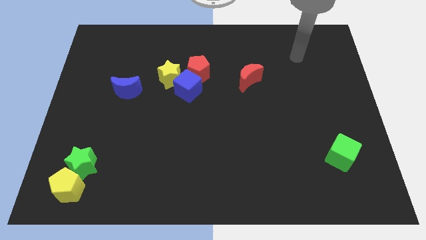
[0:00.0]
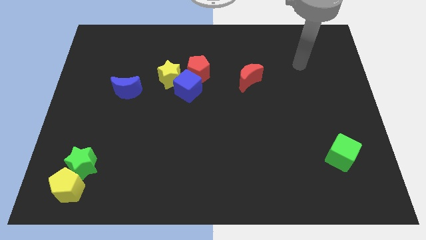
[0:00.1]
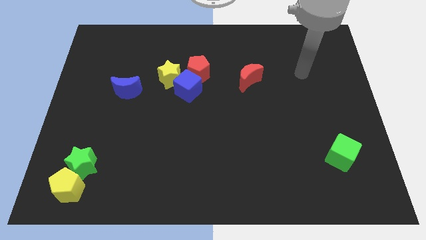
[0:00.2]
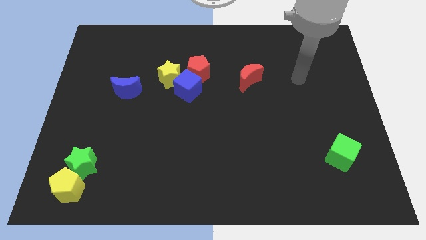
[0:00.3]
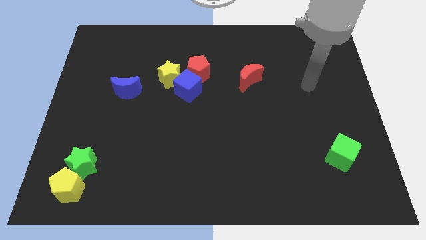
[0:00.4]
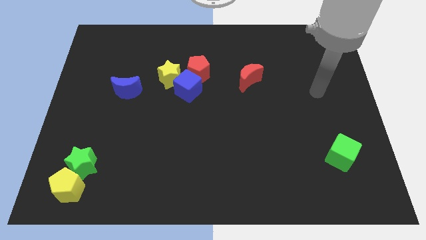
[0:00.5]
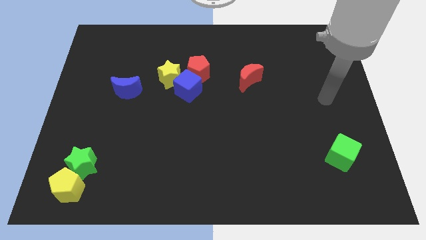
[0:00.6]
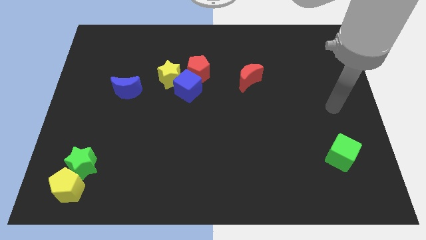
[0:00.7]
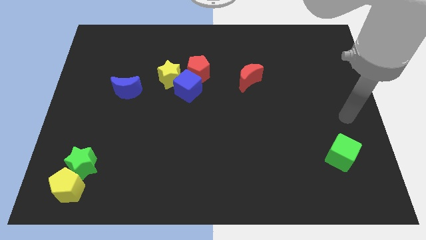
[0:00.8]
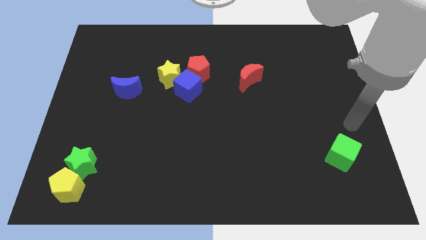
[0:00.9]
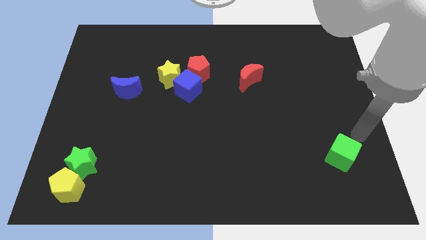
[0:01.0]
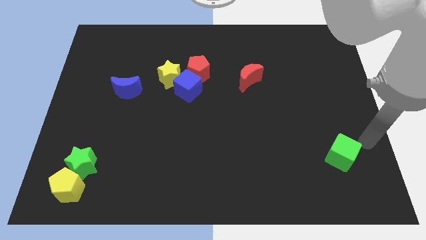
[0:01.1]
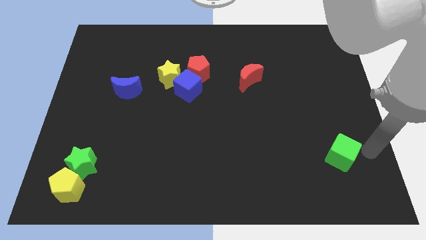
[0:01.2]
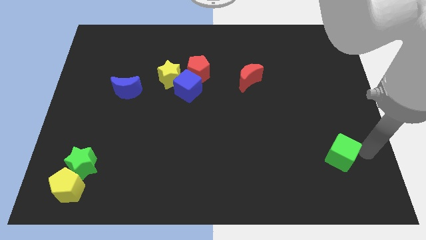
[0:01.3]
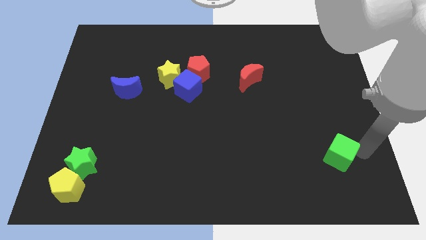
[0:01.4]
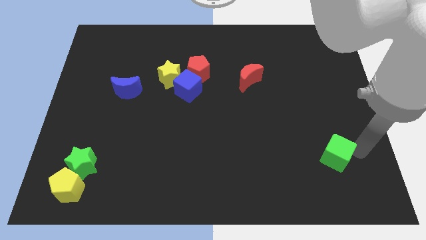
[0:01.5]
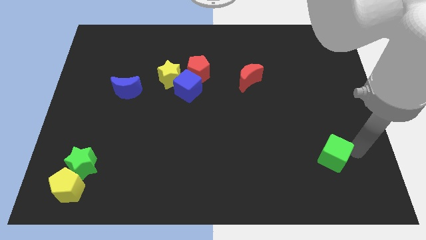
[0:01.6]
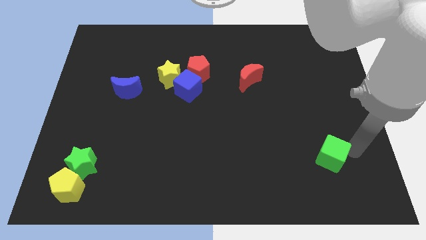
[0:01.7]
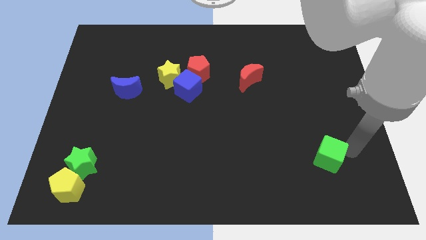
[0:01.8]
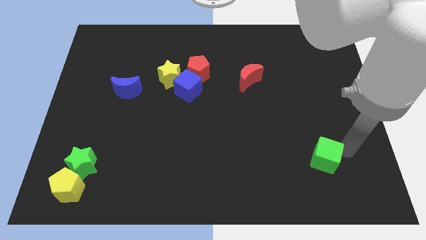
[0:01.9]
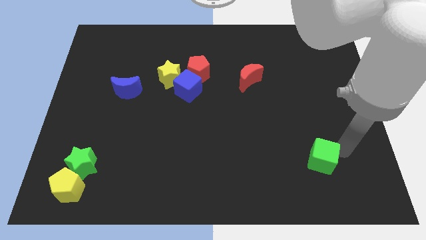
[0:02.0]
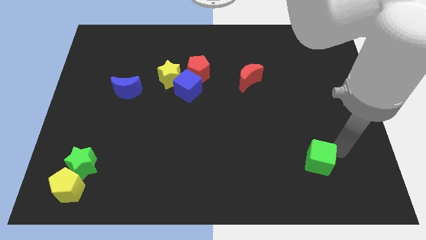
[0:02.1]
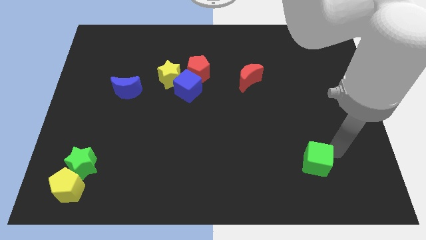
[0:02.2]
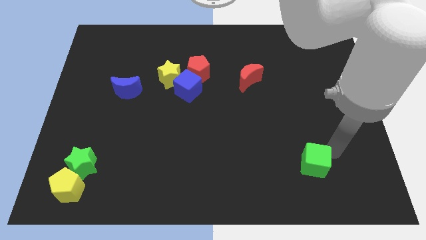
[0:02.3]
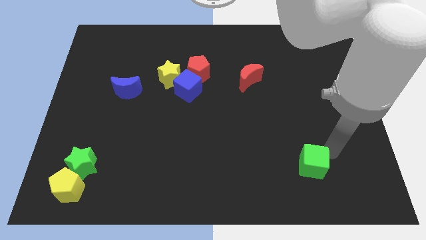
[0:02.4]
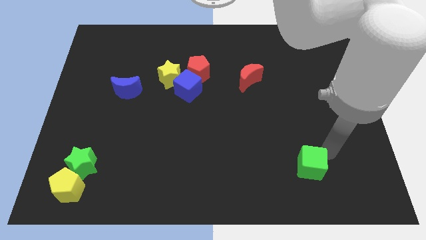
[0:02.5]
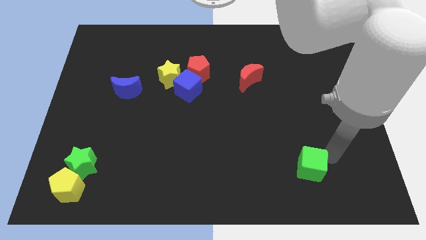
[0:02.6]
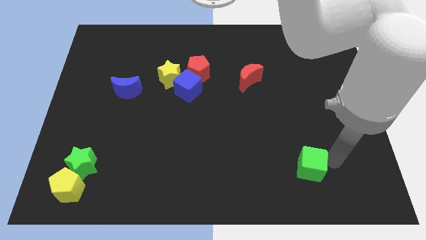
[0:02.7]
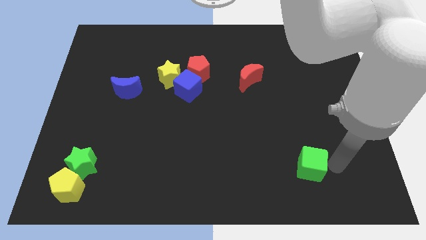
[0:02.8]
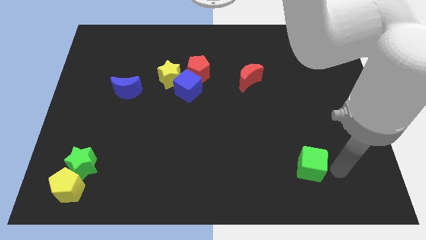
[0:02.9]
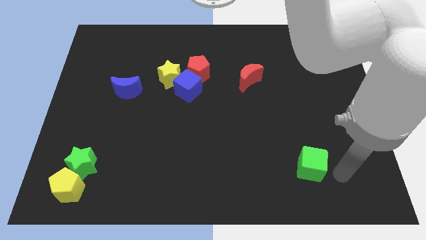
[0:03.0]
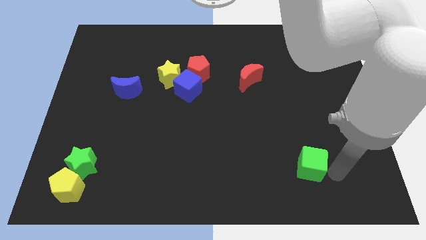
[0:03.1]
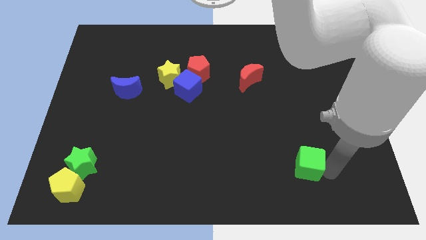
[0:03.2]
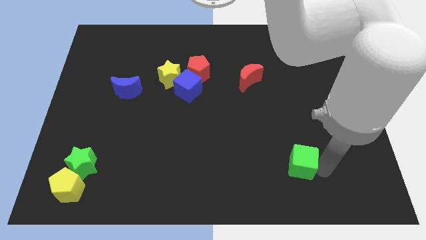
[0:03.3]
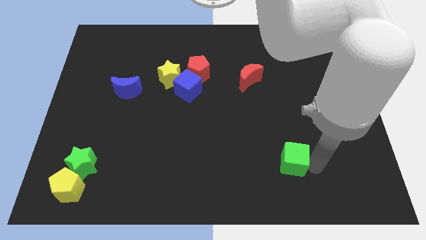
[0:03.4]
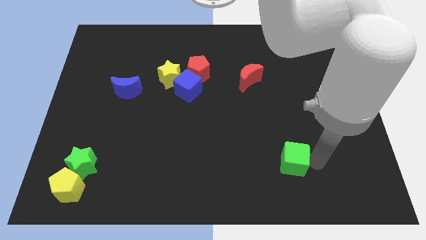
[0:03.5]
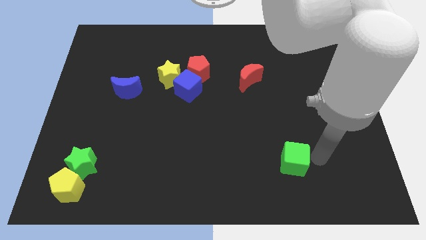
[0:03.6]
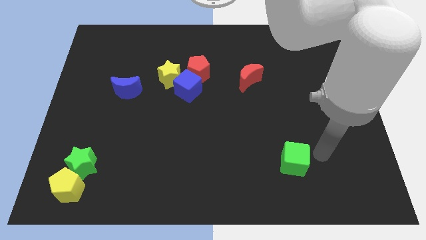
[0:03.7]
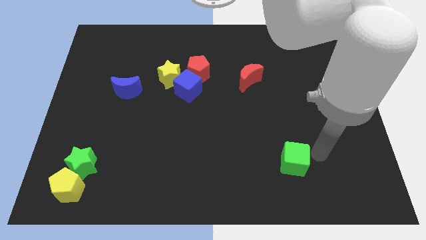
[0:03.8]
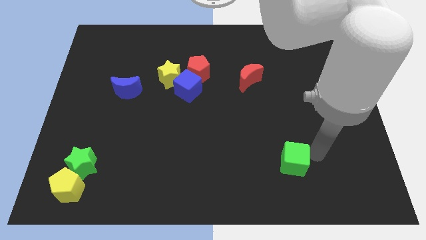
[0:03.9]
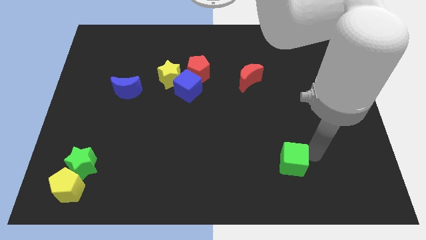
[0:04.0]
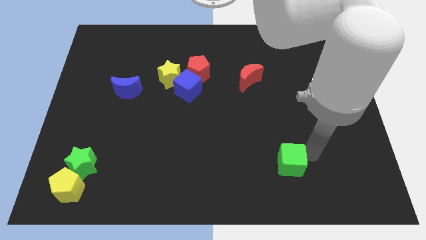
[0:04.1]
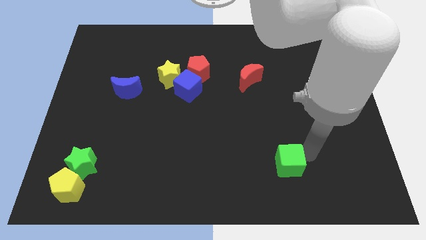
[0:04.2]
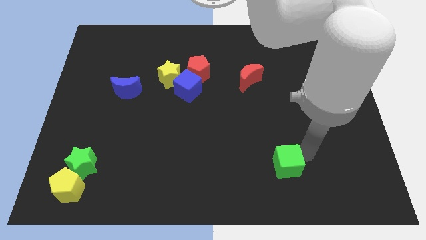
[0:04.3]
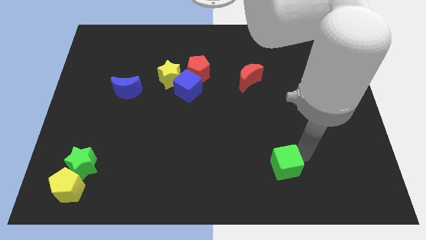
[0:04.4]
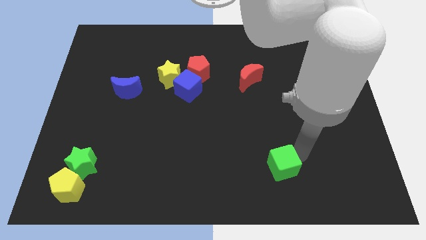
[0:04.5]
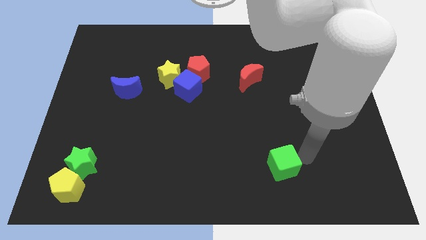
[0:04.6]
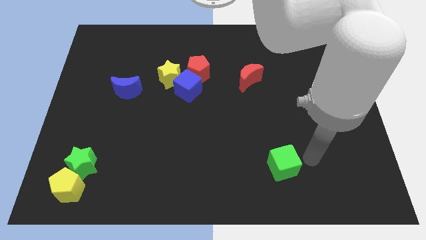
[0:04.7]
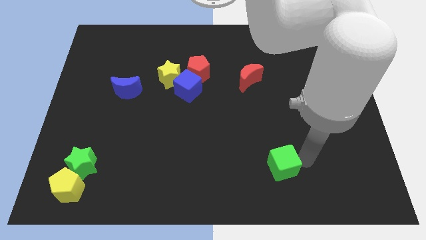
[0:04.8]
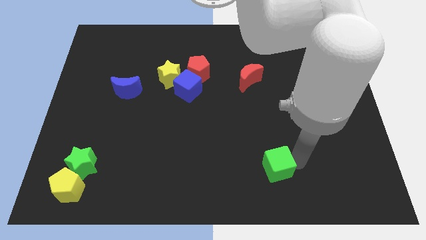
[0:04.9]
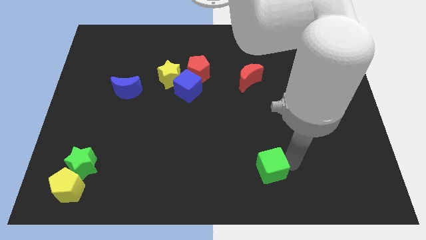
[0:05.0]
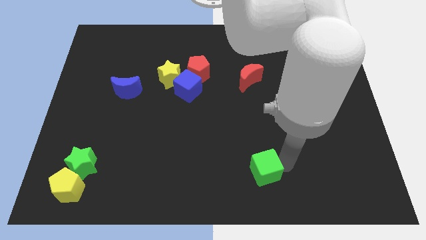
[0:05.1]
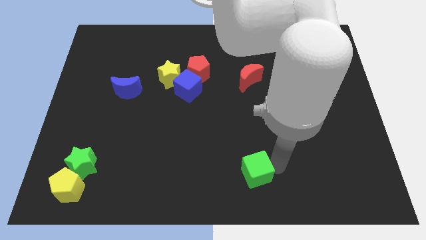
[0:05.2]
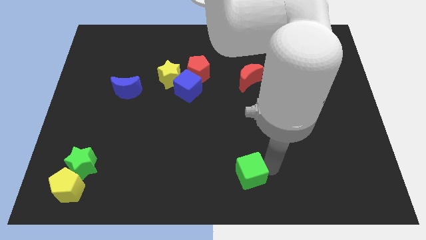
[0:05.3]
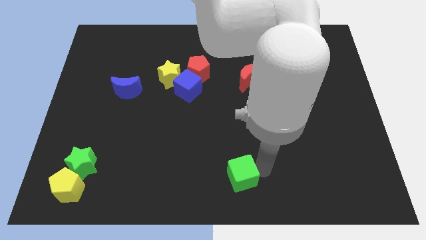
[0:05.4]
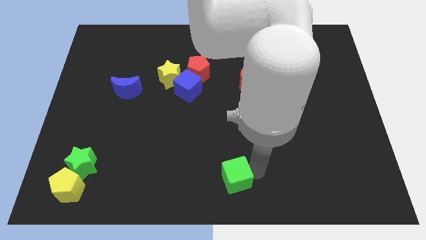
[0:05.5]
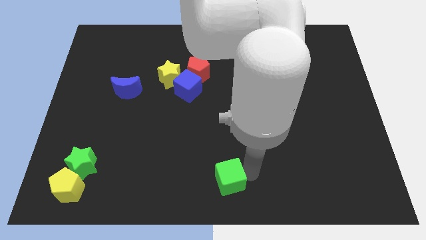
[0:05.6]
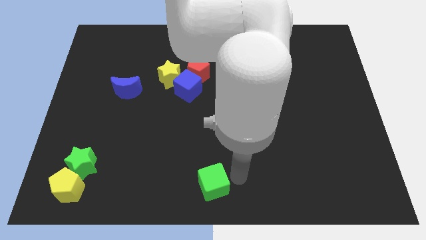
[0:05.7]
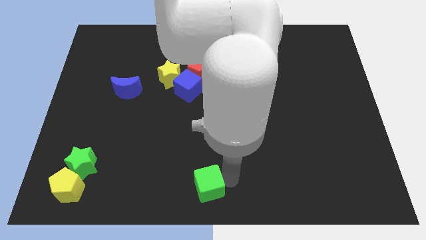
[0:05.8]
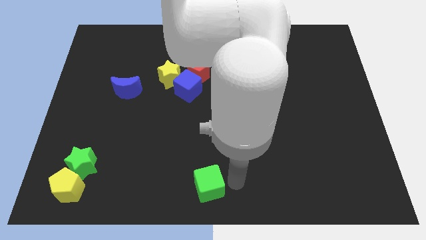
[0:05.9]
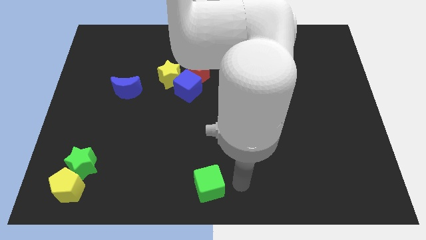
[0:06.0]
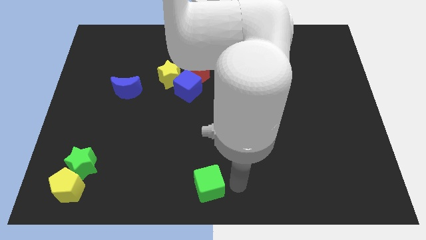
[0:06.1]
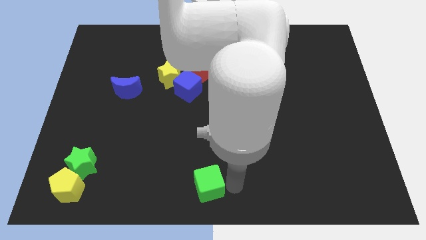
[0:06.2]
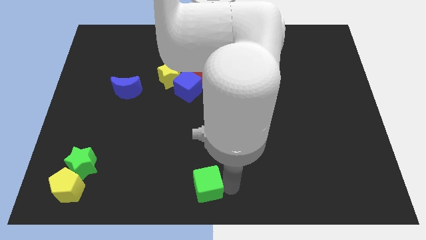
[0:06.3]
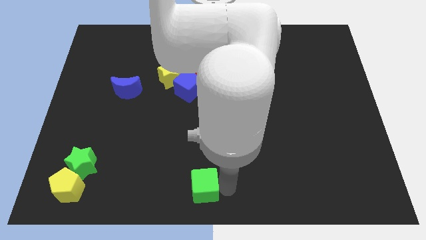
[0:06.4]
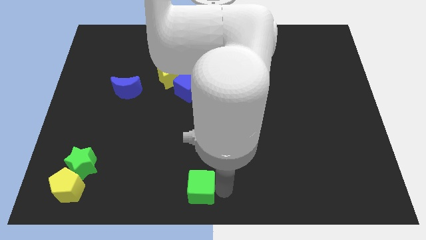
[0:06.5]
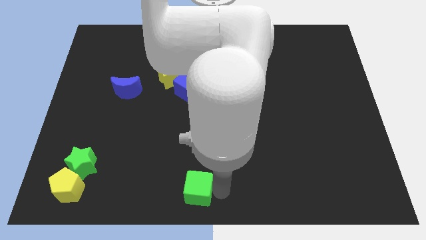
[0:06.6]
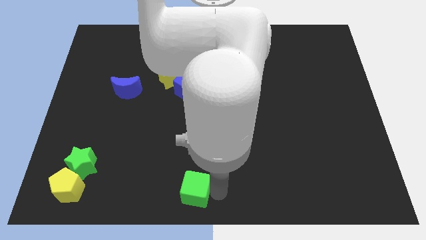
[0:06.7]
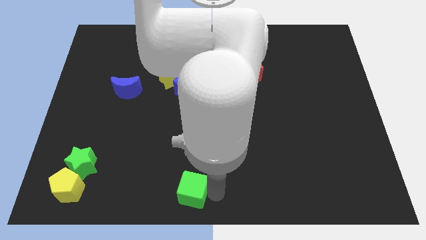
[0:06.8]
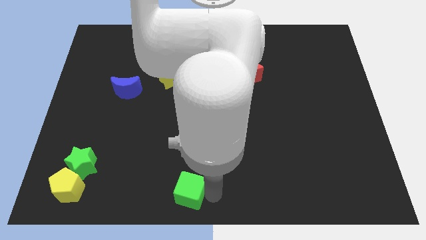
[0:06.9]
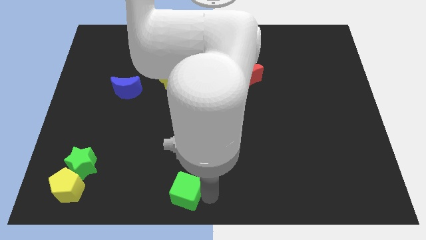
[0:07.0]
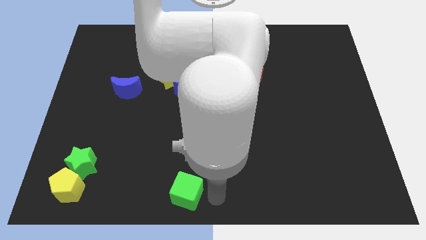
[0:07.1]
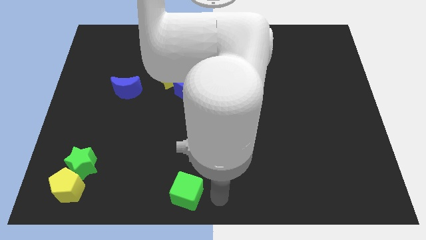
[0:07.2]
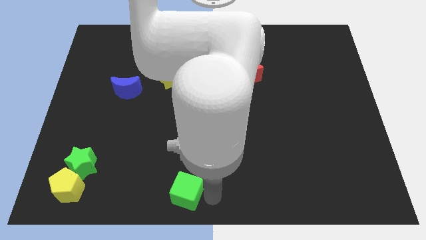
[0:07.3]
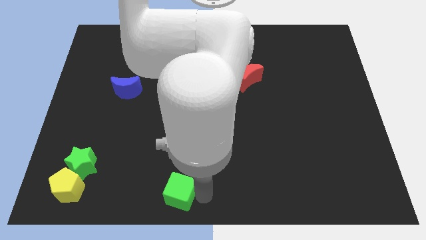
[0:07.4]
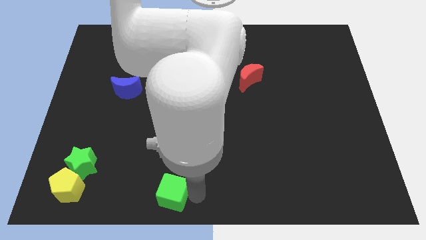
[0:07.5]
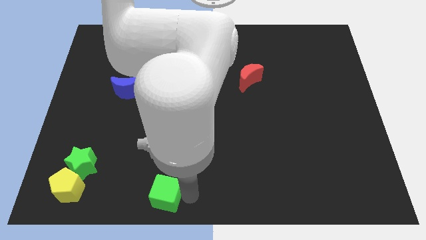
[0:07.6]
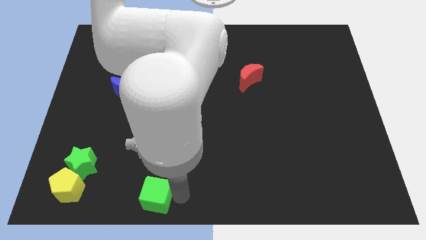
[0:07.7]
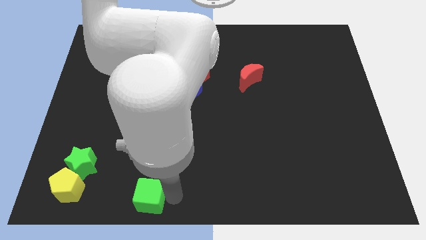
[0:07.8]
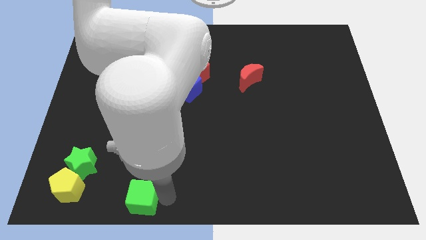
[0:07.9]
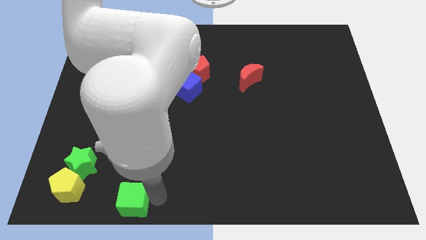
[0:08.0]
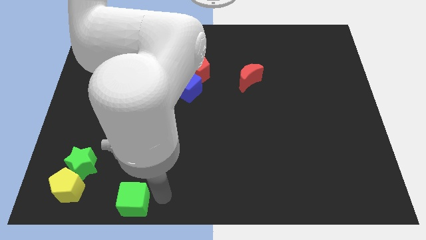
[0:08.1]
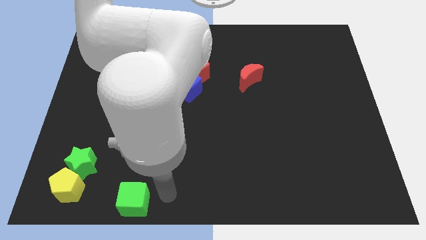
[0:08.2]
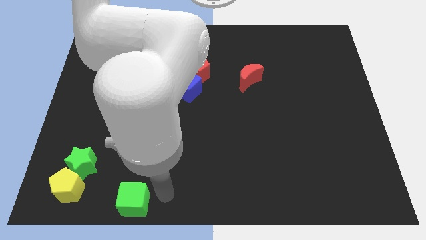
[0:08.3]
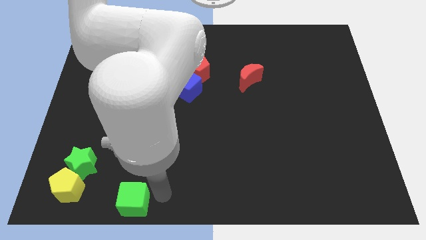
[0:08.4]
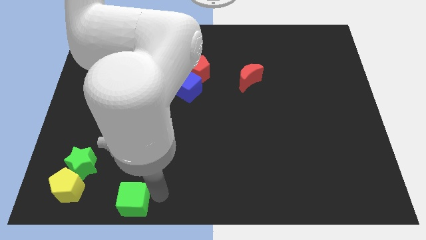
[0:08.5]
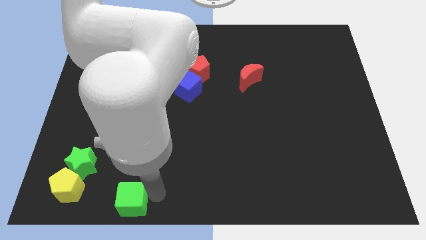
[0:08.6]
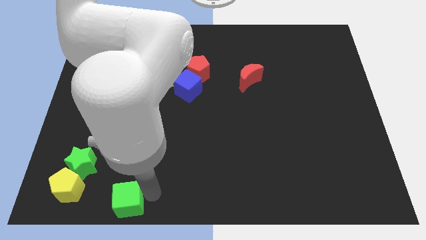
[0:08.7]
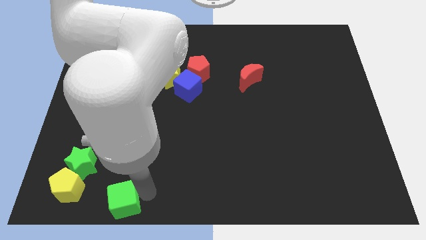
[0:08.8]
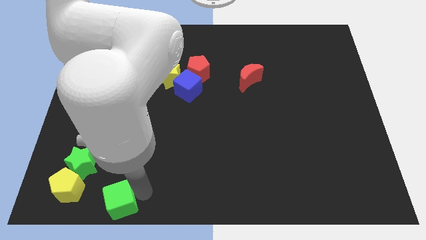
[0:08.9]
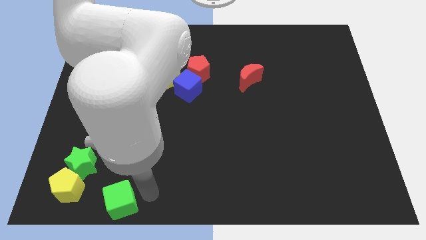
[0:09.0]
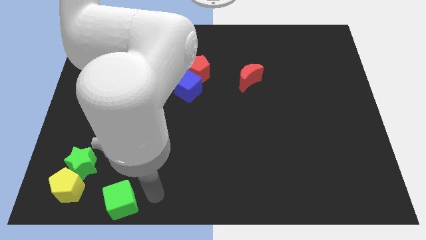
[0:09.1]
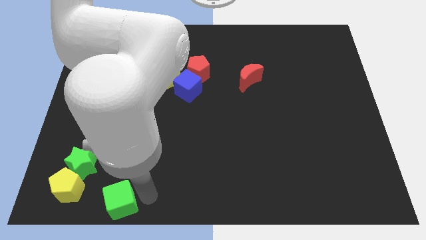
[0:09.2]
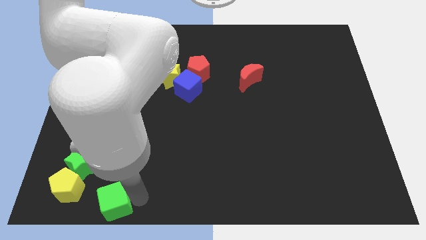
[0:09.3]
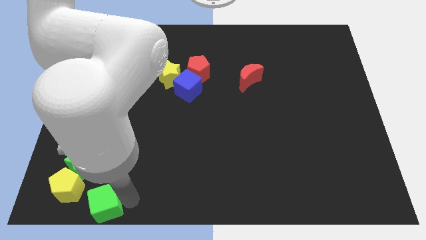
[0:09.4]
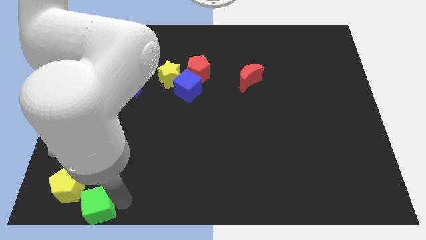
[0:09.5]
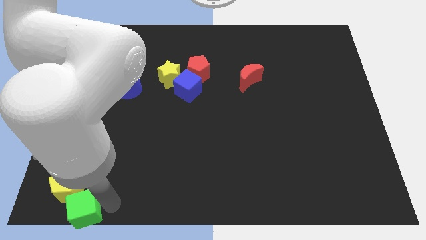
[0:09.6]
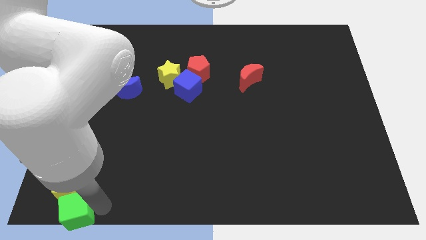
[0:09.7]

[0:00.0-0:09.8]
push the green cube to the bottom left
